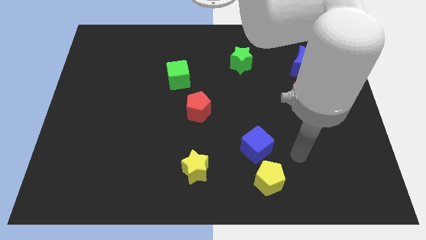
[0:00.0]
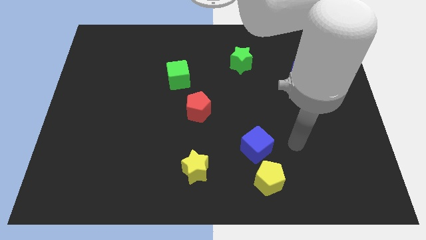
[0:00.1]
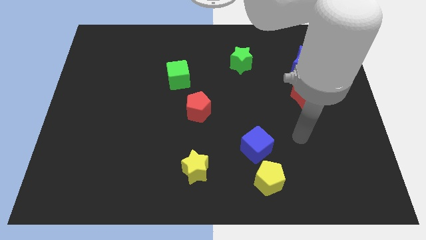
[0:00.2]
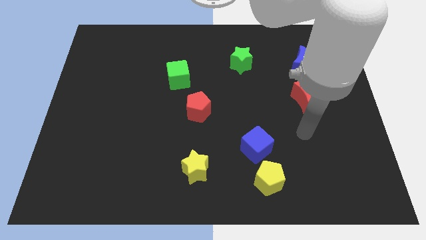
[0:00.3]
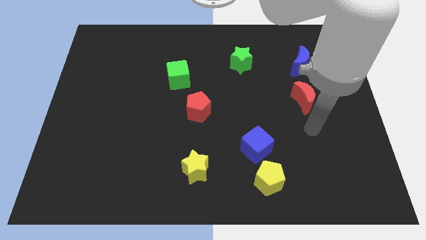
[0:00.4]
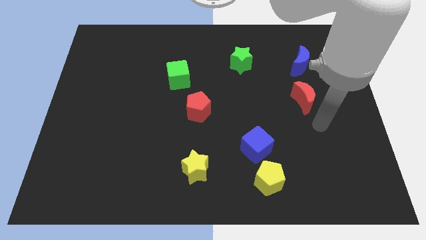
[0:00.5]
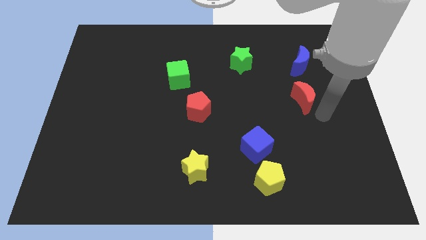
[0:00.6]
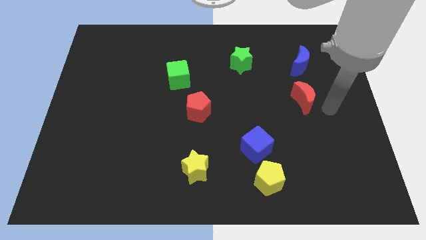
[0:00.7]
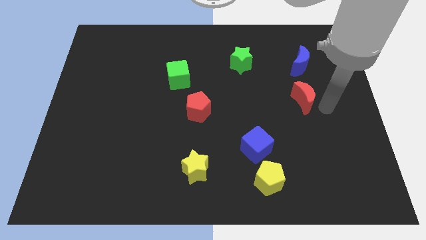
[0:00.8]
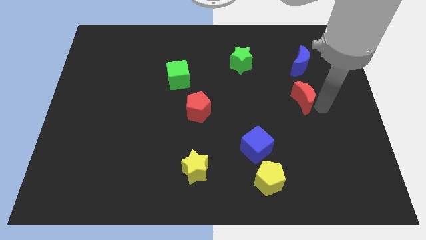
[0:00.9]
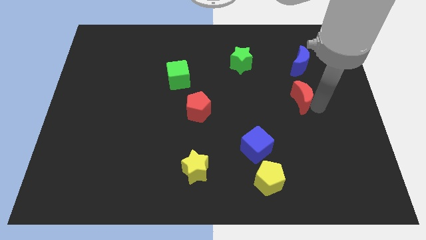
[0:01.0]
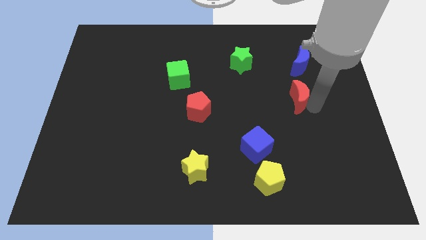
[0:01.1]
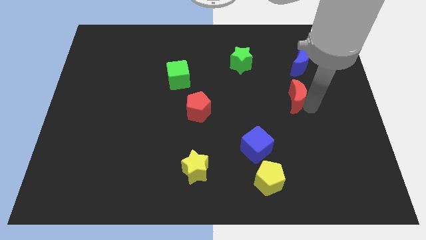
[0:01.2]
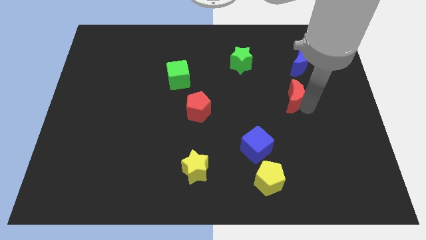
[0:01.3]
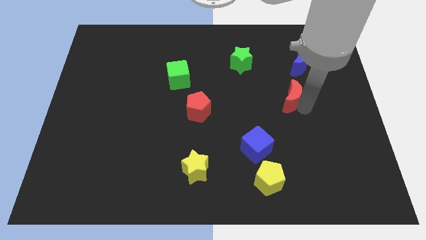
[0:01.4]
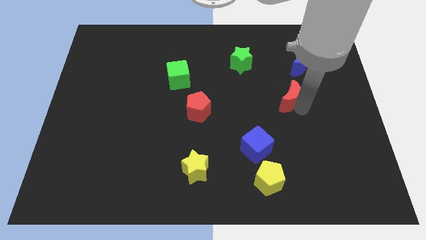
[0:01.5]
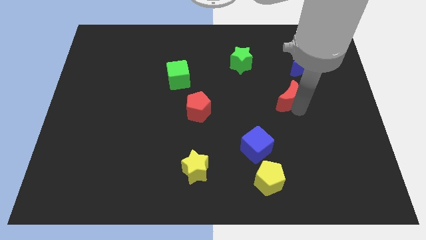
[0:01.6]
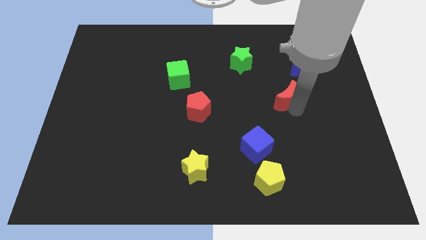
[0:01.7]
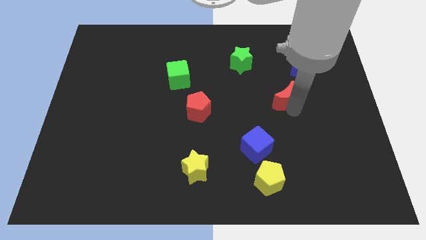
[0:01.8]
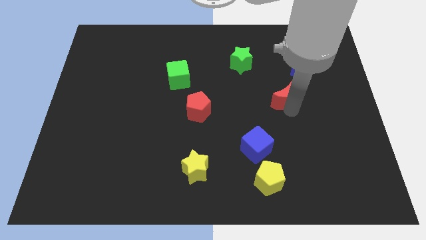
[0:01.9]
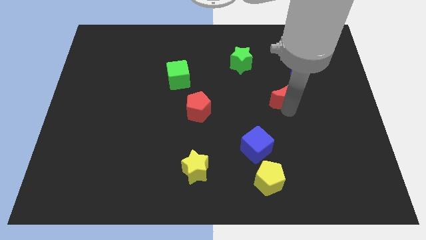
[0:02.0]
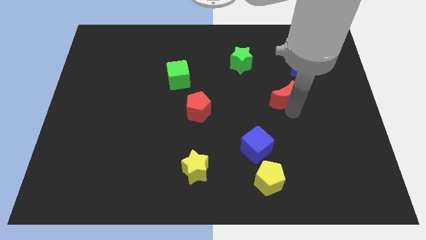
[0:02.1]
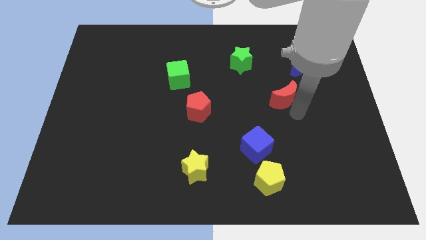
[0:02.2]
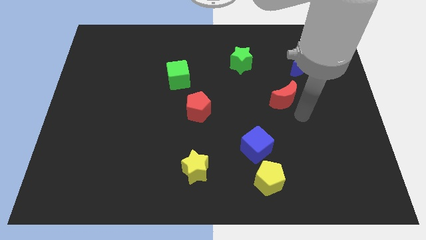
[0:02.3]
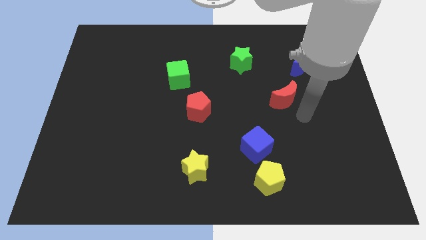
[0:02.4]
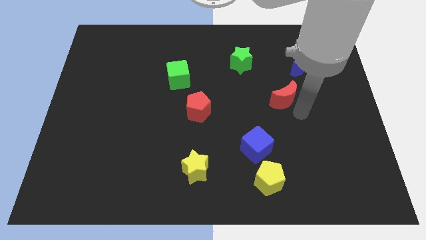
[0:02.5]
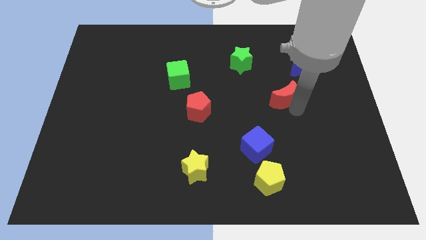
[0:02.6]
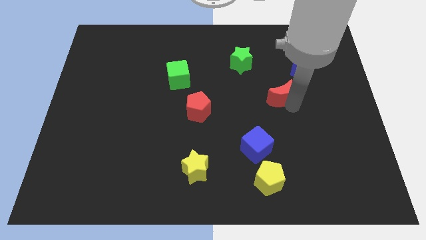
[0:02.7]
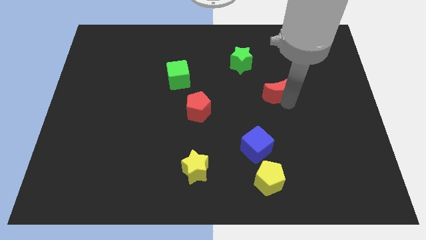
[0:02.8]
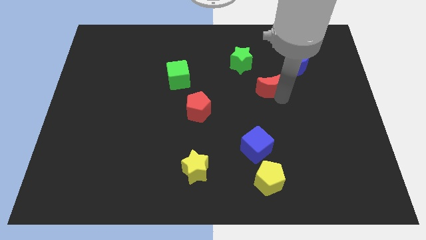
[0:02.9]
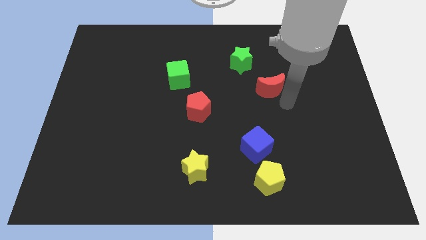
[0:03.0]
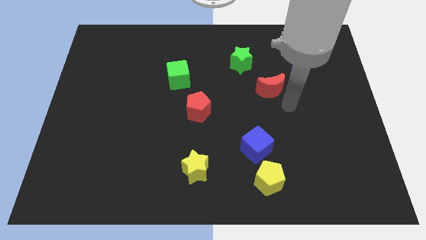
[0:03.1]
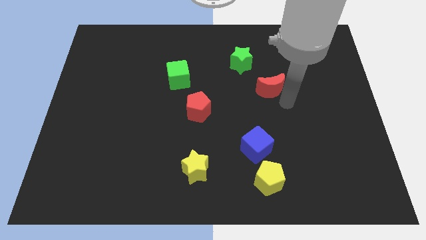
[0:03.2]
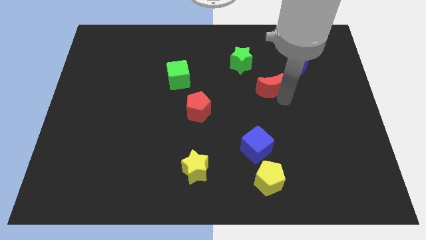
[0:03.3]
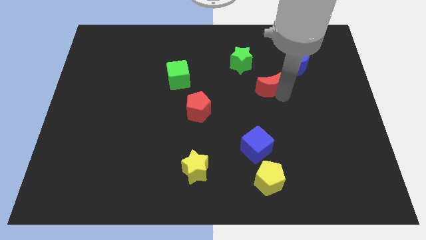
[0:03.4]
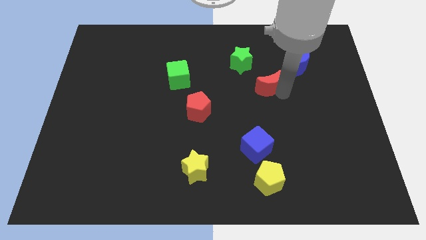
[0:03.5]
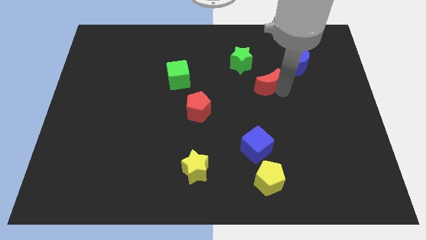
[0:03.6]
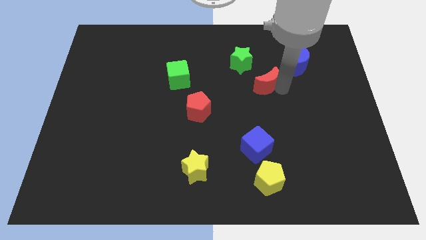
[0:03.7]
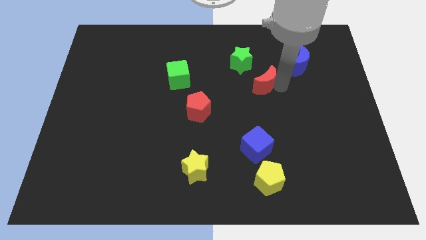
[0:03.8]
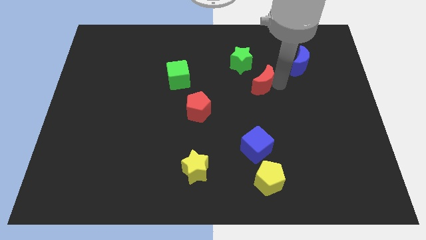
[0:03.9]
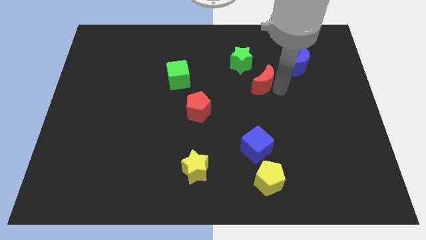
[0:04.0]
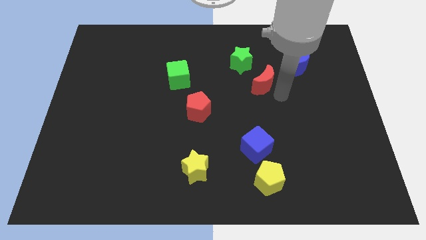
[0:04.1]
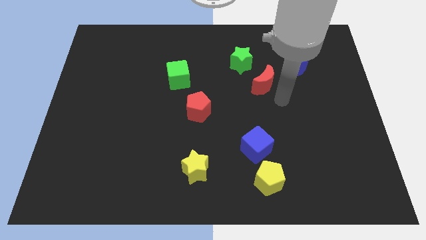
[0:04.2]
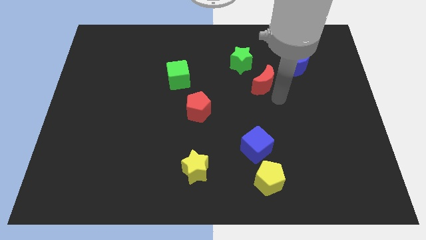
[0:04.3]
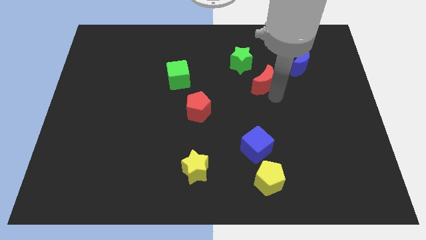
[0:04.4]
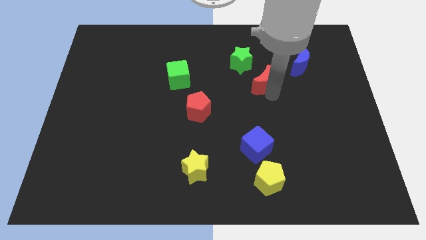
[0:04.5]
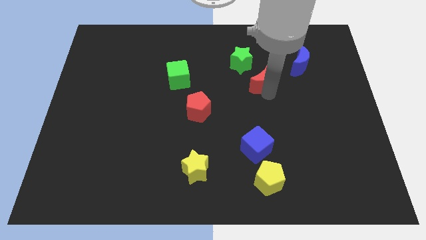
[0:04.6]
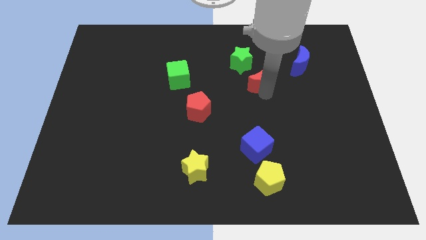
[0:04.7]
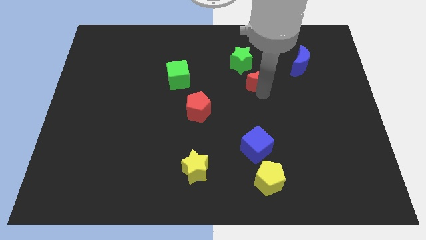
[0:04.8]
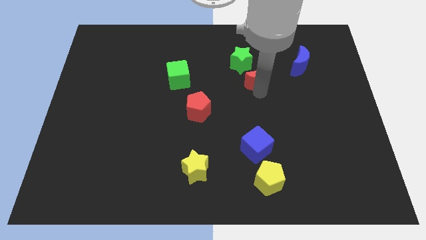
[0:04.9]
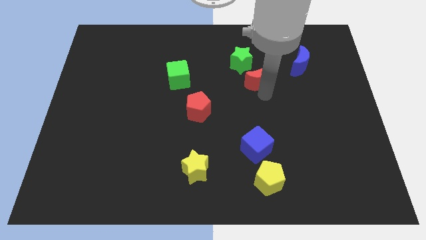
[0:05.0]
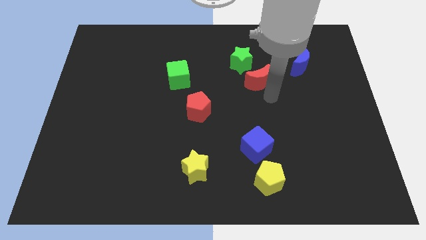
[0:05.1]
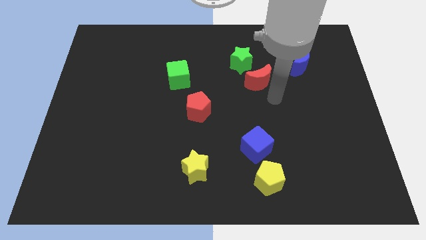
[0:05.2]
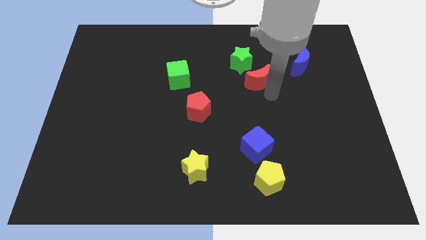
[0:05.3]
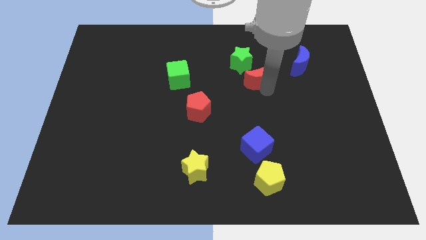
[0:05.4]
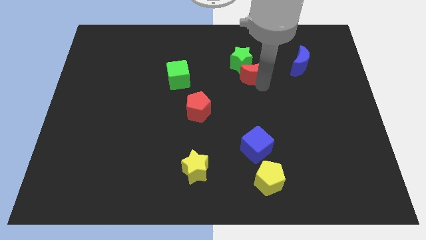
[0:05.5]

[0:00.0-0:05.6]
put the red moon towards the green star

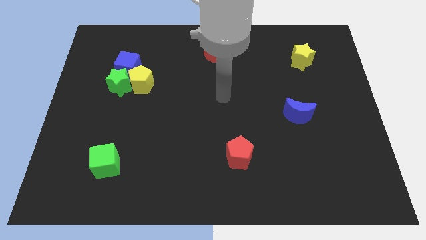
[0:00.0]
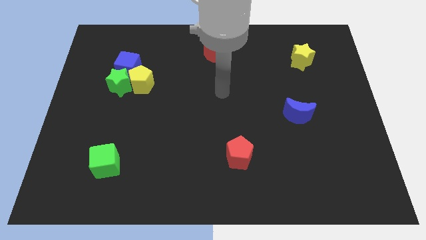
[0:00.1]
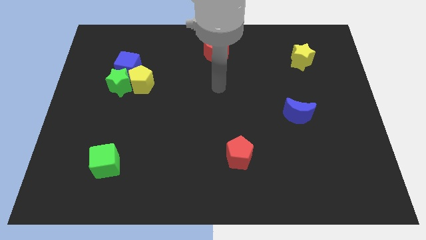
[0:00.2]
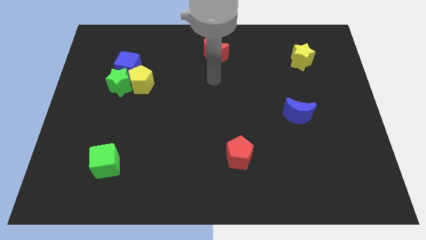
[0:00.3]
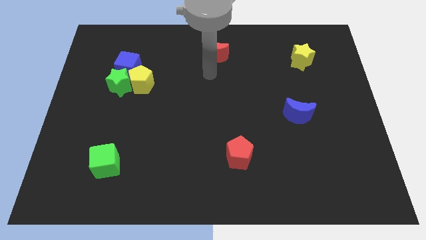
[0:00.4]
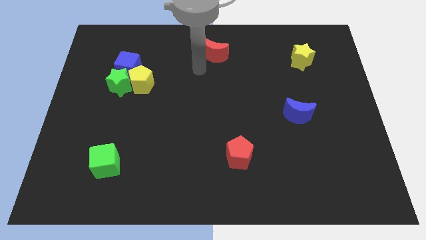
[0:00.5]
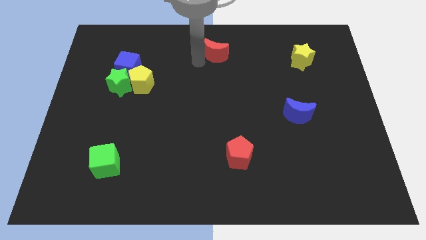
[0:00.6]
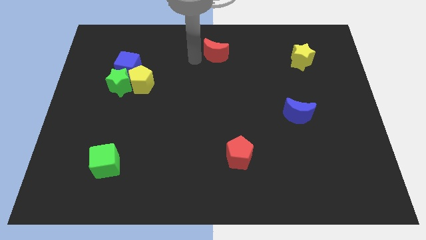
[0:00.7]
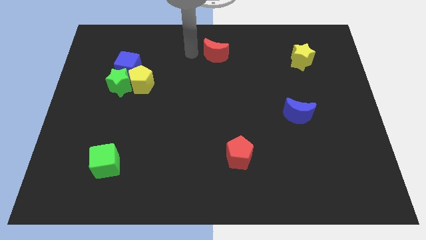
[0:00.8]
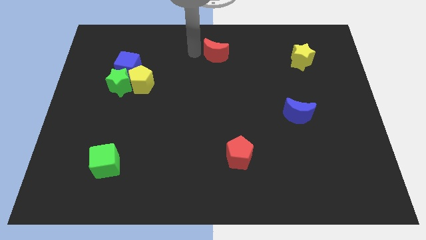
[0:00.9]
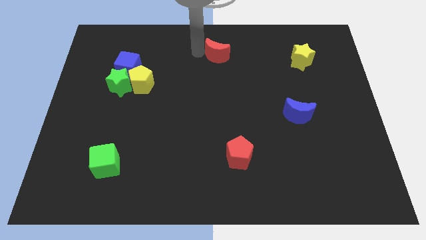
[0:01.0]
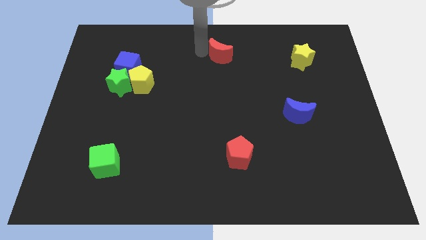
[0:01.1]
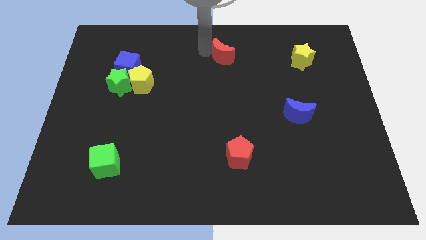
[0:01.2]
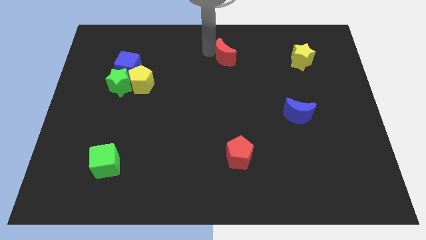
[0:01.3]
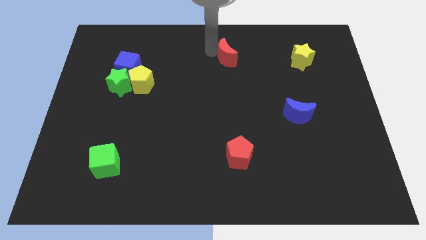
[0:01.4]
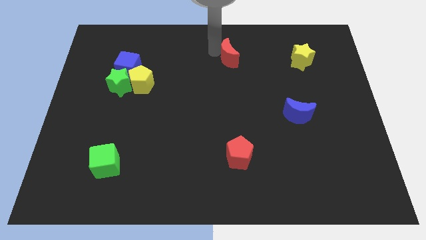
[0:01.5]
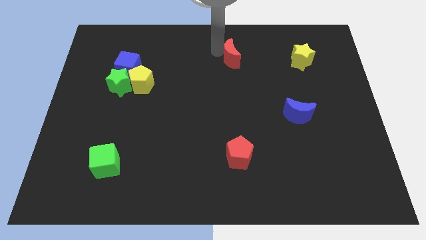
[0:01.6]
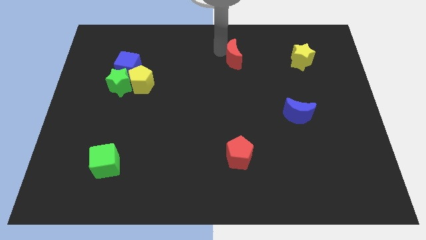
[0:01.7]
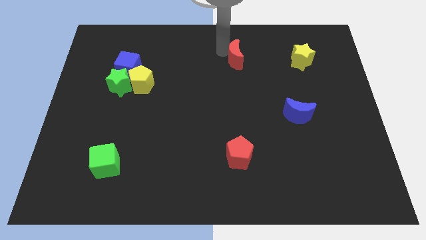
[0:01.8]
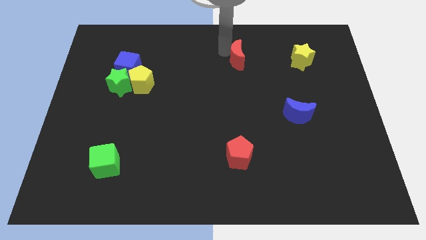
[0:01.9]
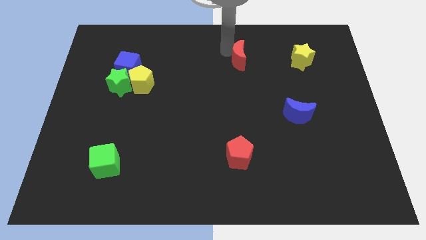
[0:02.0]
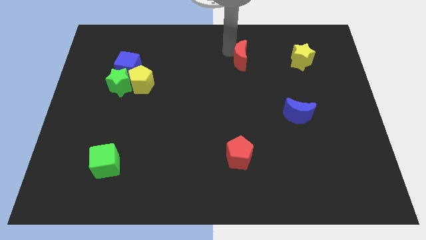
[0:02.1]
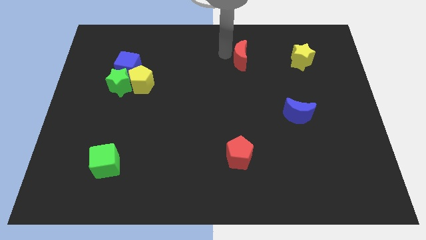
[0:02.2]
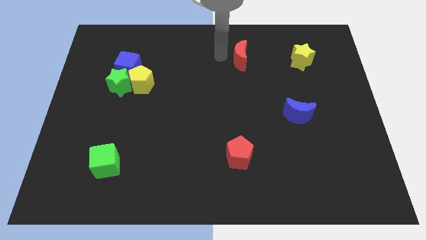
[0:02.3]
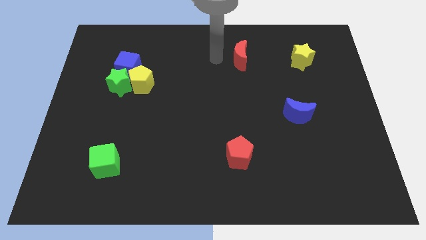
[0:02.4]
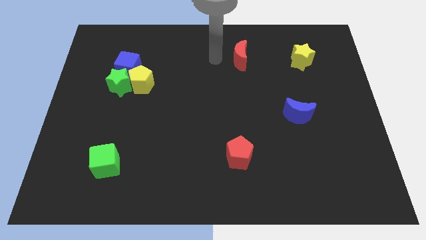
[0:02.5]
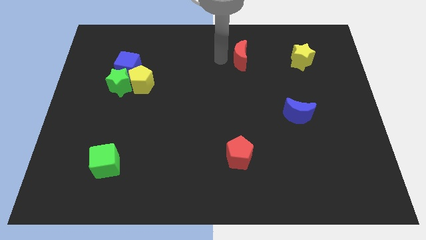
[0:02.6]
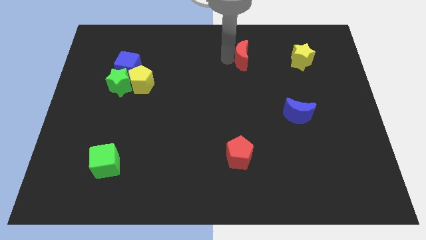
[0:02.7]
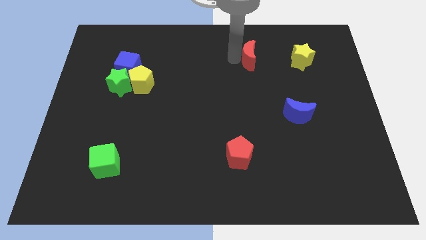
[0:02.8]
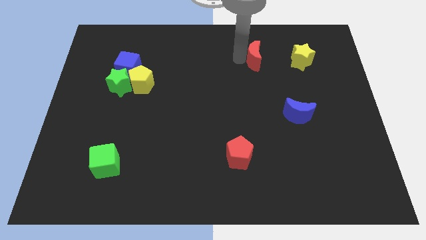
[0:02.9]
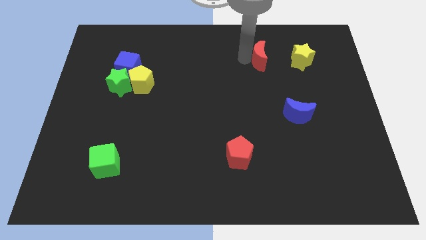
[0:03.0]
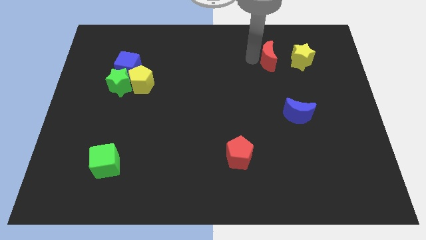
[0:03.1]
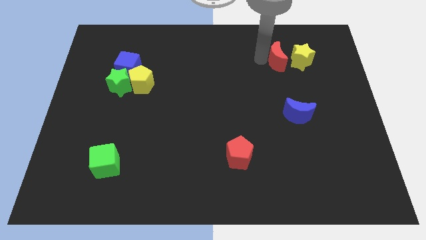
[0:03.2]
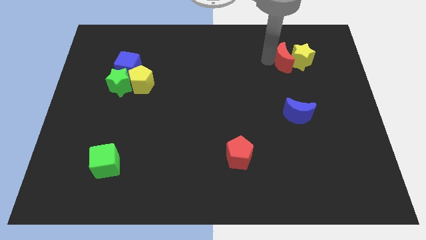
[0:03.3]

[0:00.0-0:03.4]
put the red moon next to the yellow star
